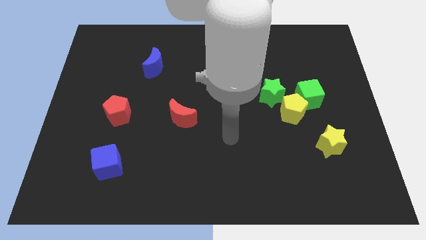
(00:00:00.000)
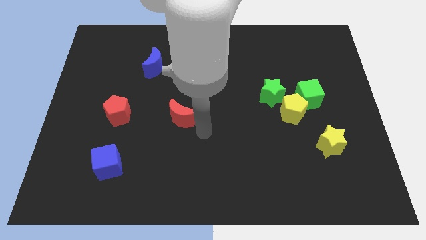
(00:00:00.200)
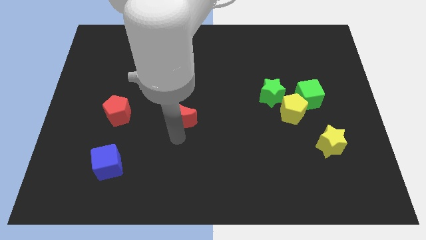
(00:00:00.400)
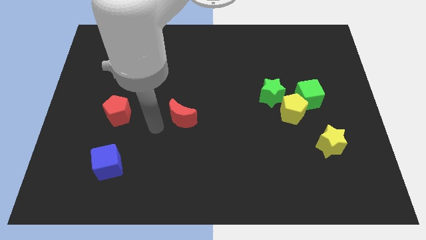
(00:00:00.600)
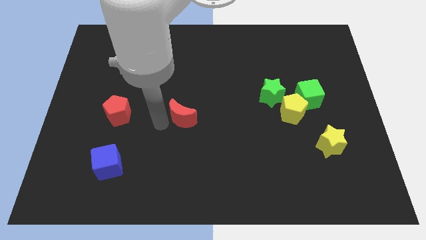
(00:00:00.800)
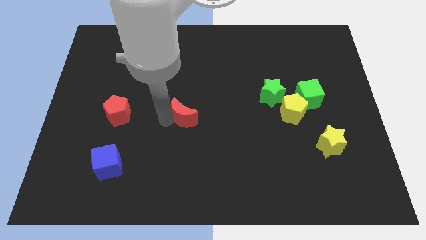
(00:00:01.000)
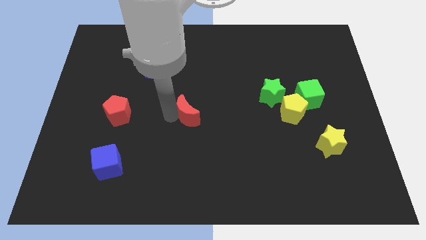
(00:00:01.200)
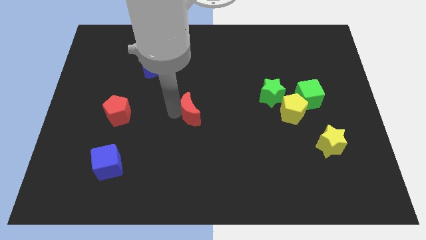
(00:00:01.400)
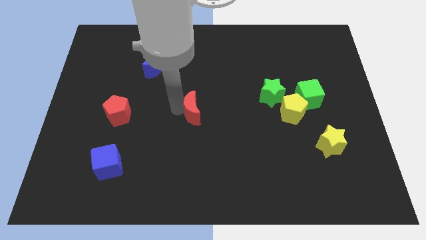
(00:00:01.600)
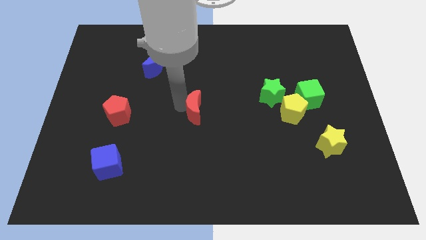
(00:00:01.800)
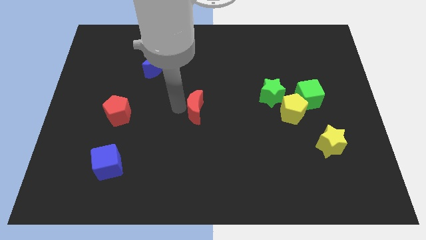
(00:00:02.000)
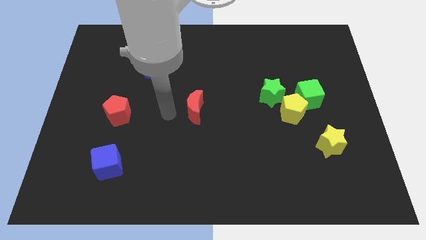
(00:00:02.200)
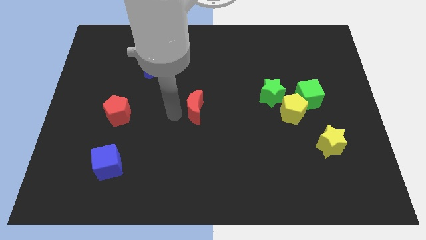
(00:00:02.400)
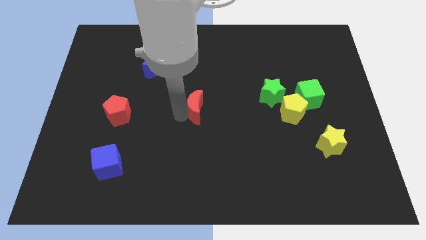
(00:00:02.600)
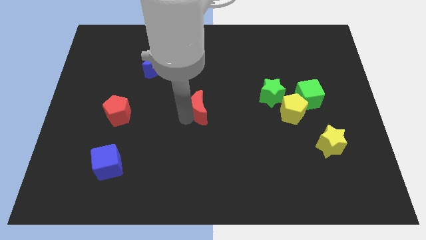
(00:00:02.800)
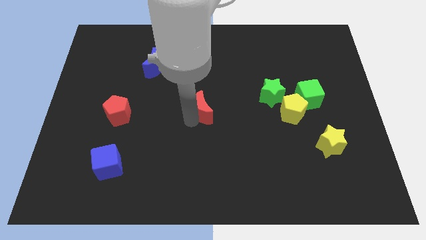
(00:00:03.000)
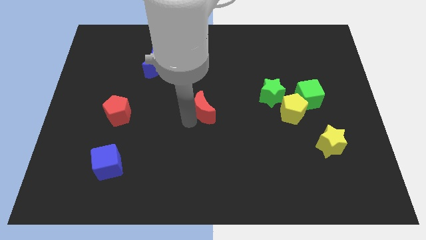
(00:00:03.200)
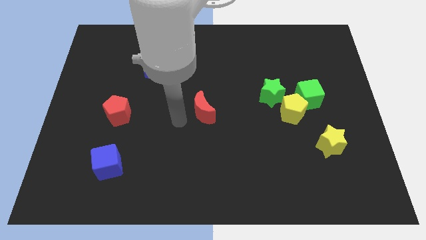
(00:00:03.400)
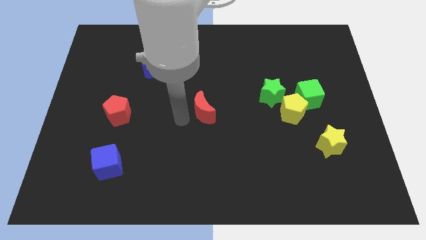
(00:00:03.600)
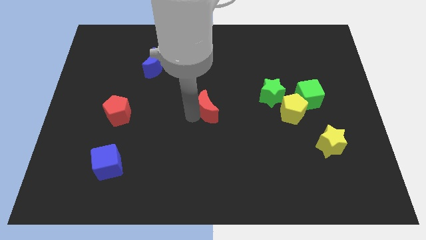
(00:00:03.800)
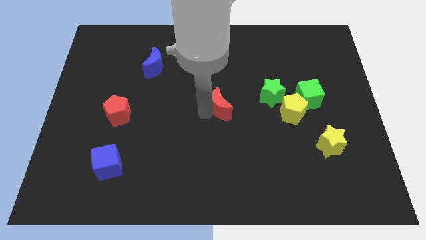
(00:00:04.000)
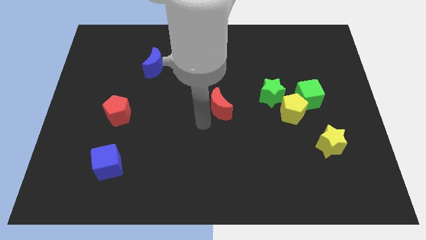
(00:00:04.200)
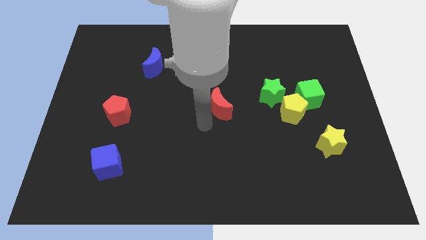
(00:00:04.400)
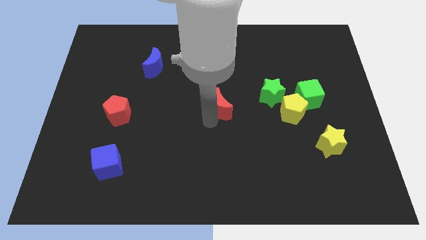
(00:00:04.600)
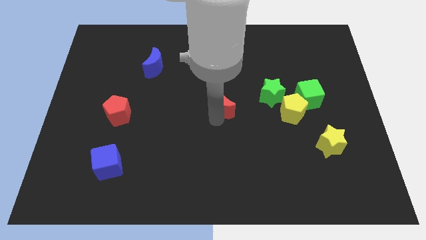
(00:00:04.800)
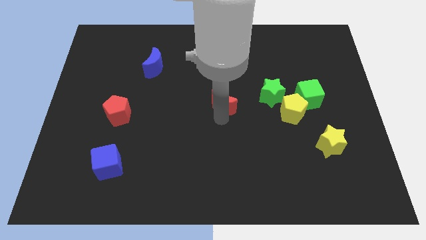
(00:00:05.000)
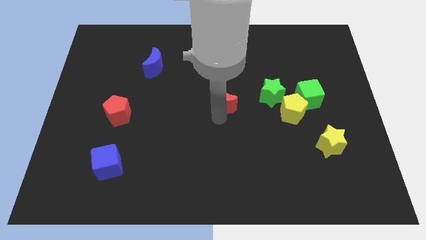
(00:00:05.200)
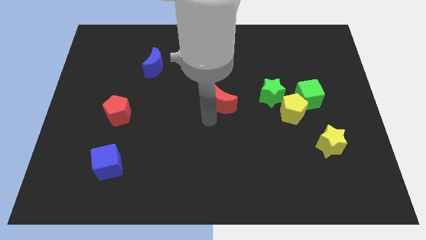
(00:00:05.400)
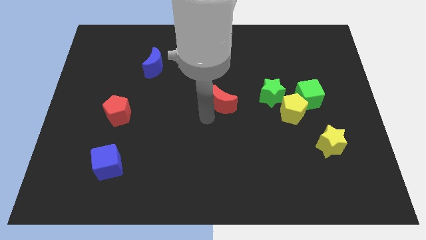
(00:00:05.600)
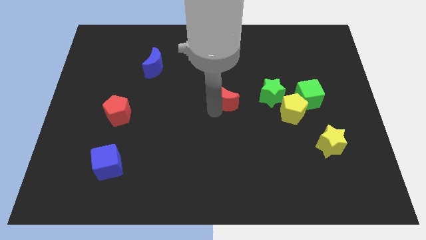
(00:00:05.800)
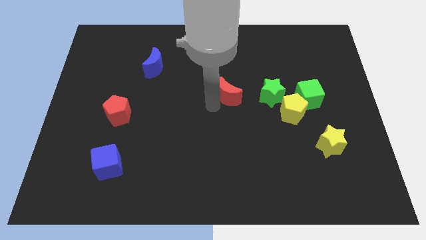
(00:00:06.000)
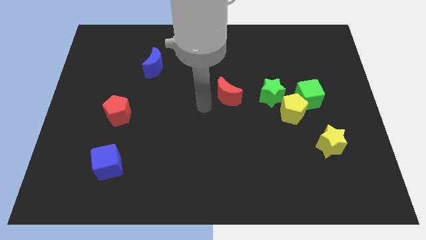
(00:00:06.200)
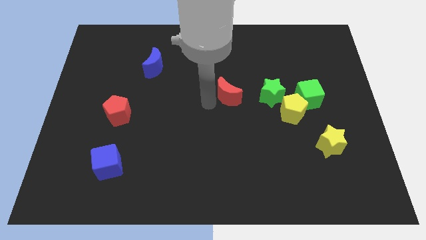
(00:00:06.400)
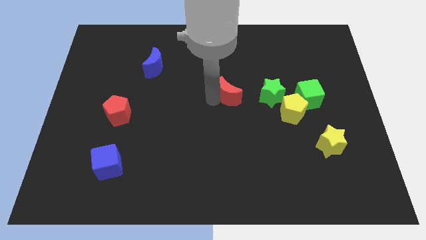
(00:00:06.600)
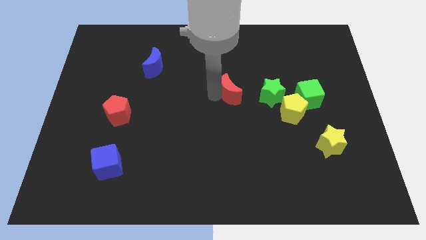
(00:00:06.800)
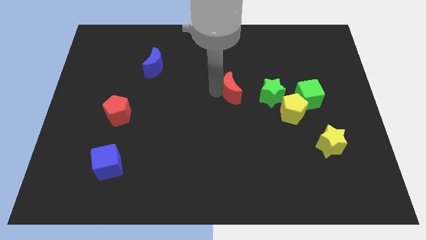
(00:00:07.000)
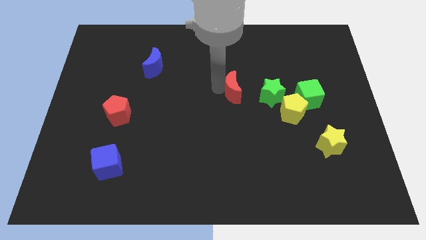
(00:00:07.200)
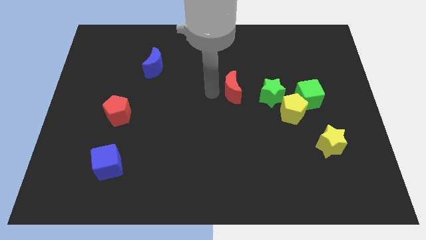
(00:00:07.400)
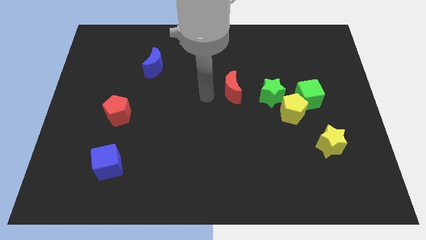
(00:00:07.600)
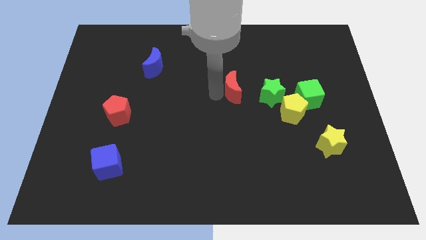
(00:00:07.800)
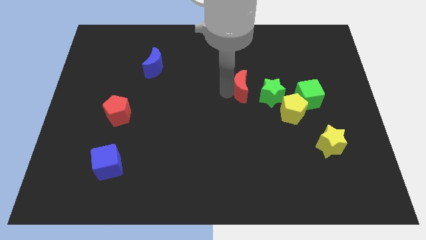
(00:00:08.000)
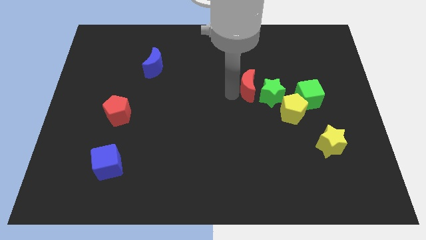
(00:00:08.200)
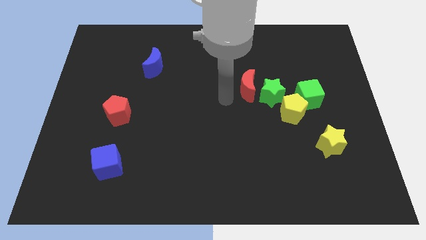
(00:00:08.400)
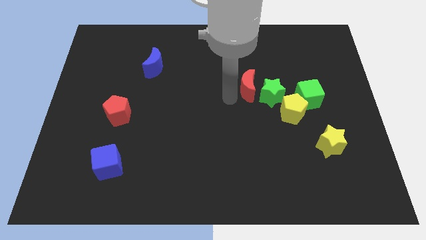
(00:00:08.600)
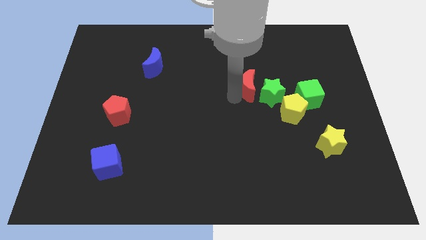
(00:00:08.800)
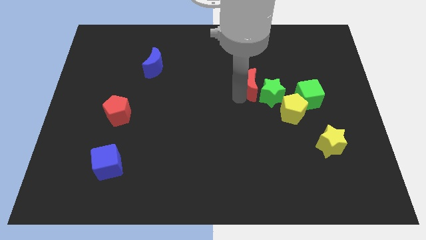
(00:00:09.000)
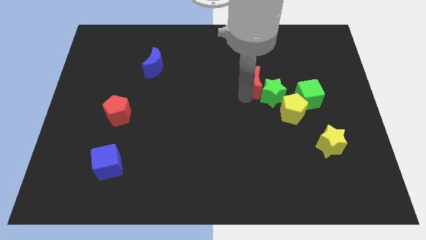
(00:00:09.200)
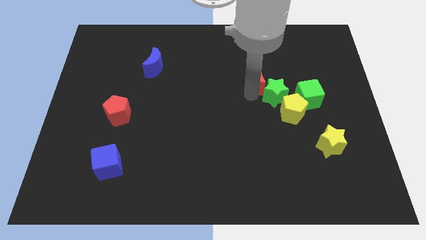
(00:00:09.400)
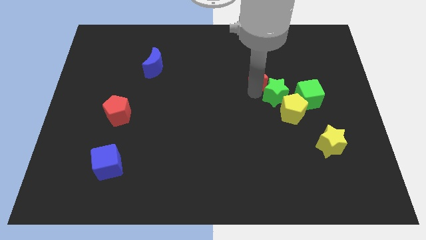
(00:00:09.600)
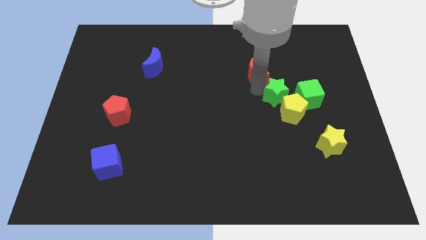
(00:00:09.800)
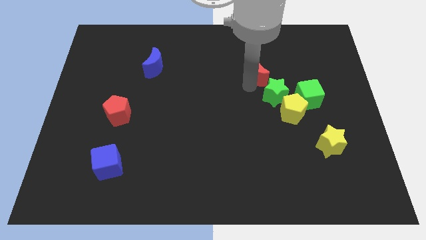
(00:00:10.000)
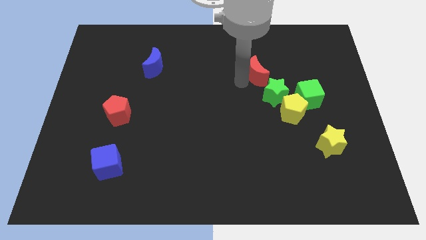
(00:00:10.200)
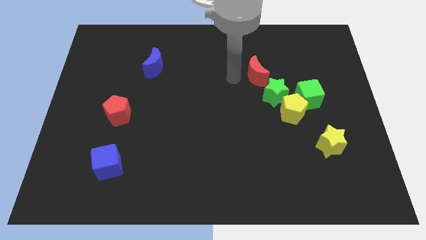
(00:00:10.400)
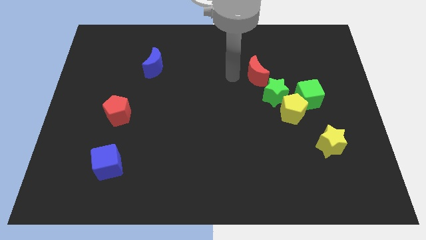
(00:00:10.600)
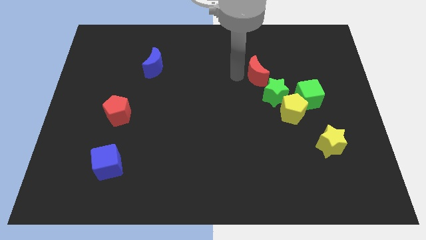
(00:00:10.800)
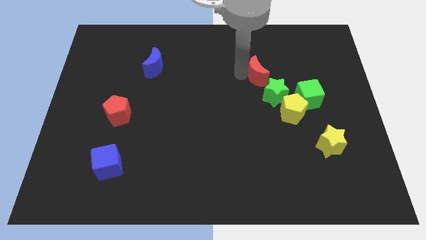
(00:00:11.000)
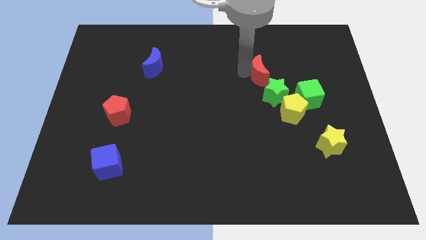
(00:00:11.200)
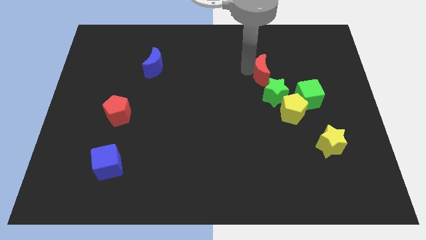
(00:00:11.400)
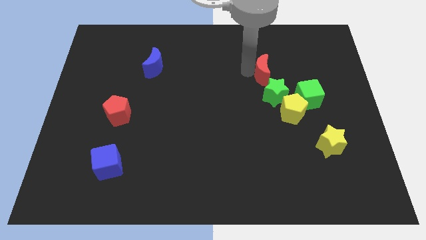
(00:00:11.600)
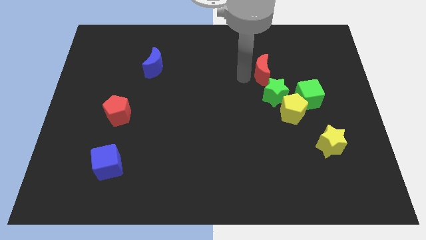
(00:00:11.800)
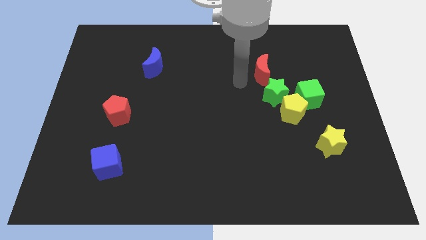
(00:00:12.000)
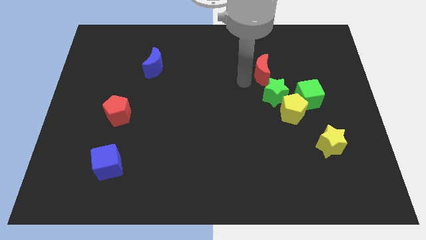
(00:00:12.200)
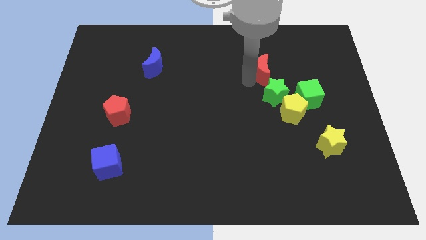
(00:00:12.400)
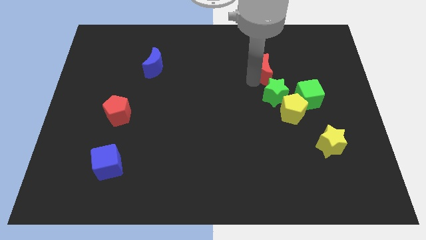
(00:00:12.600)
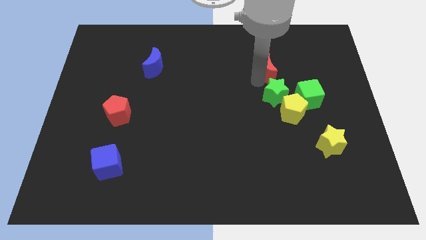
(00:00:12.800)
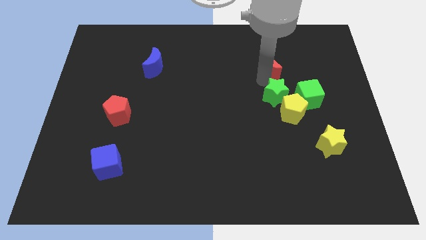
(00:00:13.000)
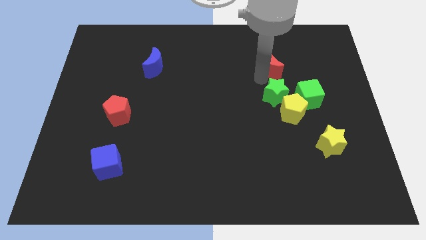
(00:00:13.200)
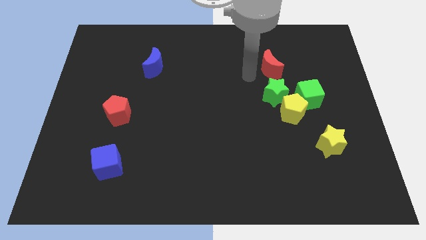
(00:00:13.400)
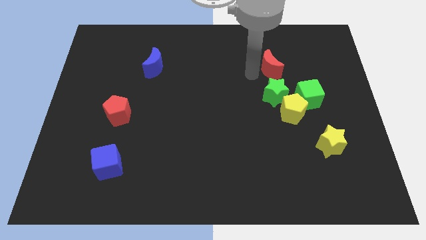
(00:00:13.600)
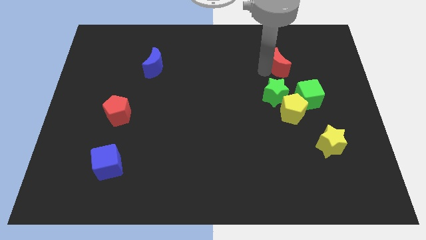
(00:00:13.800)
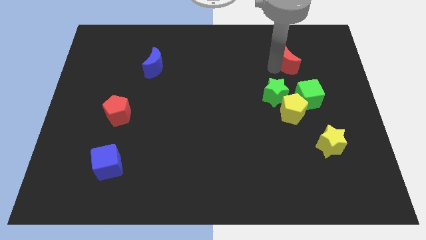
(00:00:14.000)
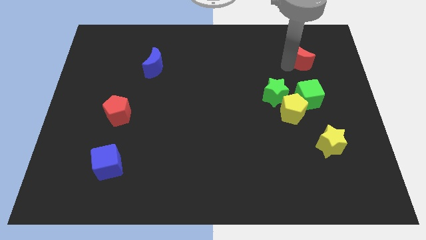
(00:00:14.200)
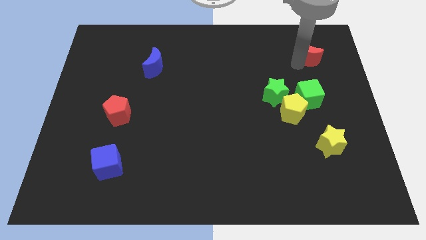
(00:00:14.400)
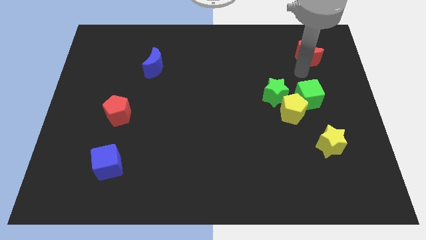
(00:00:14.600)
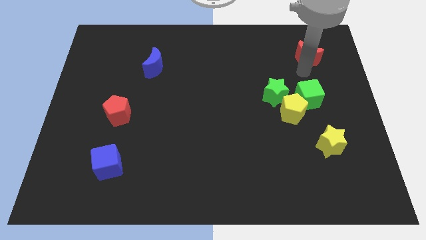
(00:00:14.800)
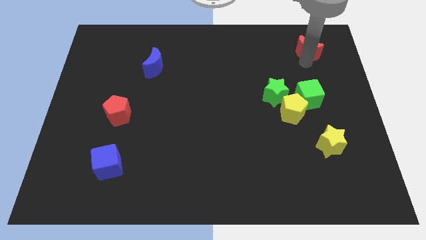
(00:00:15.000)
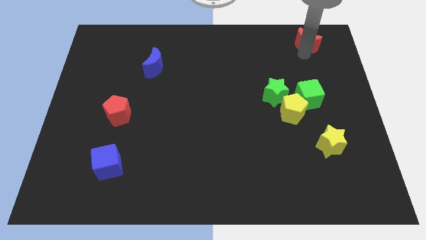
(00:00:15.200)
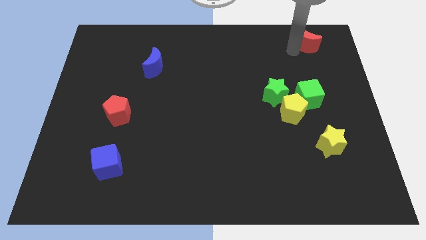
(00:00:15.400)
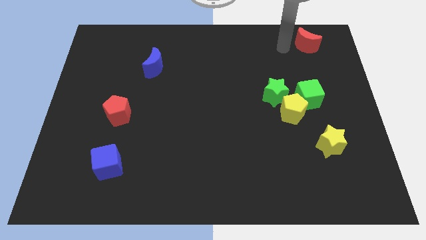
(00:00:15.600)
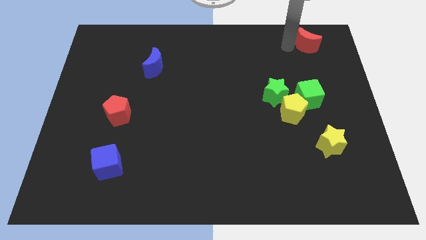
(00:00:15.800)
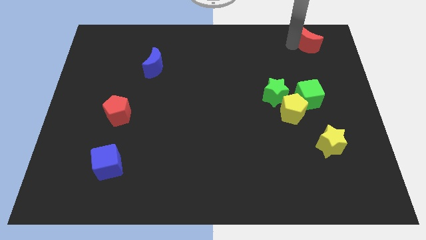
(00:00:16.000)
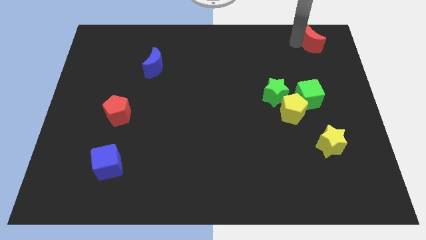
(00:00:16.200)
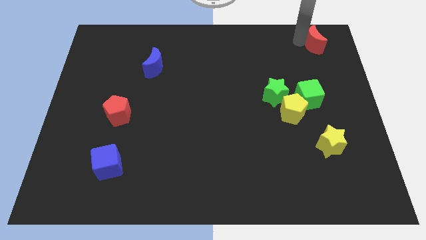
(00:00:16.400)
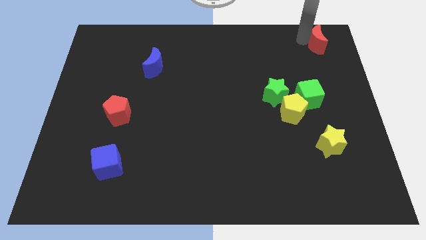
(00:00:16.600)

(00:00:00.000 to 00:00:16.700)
move the red moon to the top right of the board
